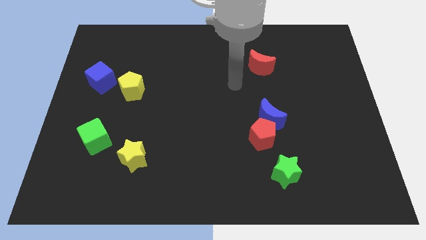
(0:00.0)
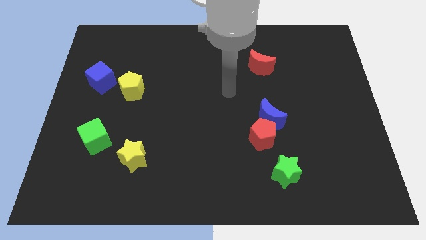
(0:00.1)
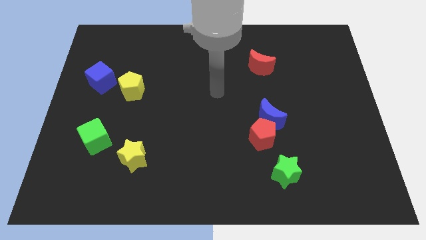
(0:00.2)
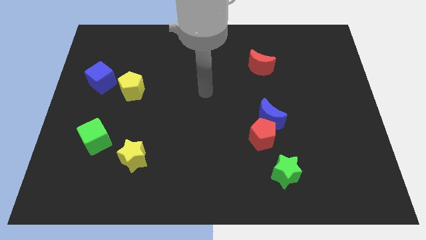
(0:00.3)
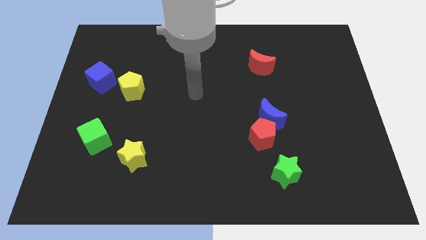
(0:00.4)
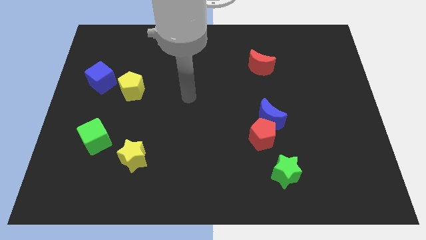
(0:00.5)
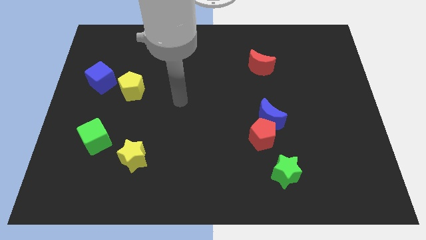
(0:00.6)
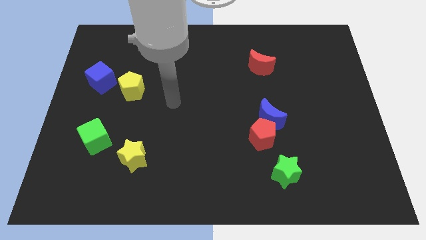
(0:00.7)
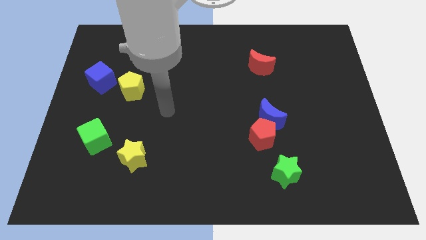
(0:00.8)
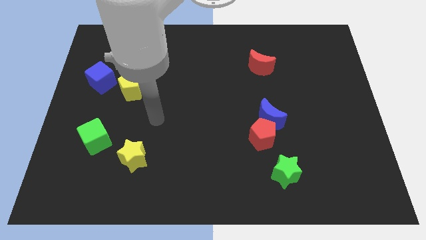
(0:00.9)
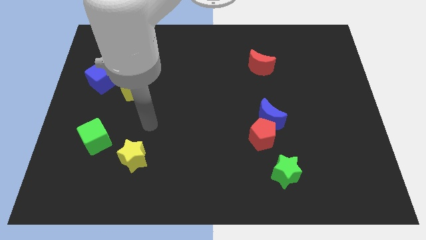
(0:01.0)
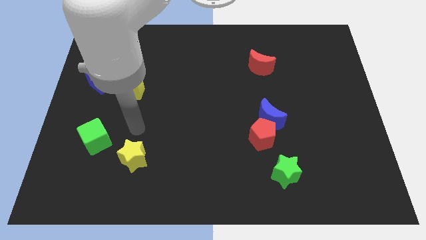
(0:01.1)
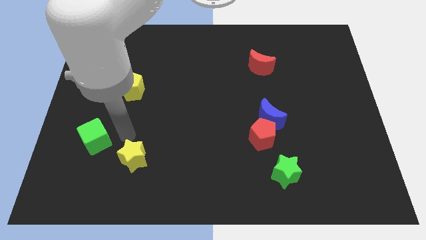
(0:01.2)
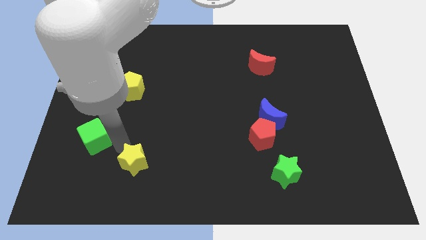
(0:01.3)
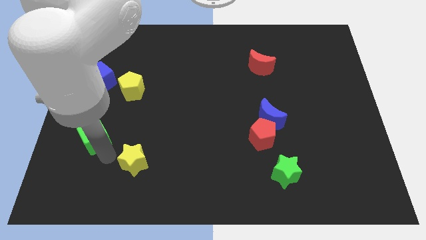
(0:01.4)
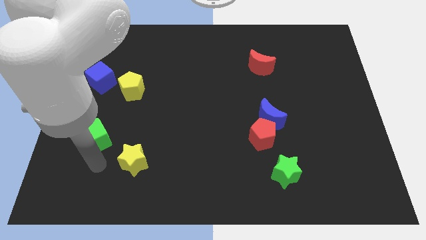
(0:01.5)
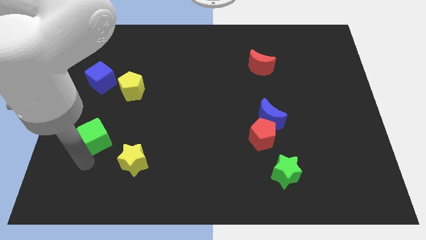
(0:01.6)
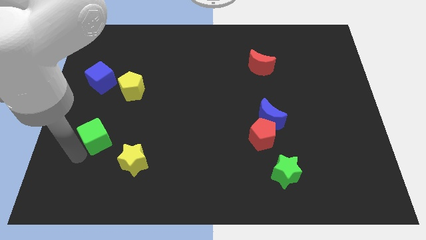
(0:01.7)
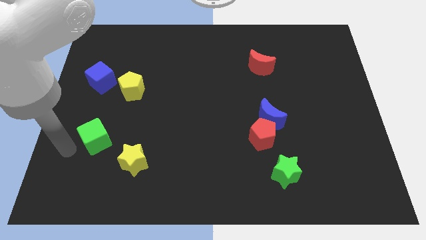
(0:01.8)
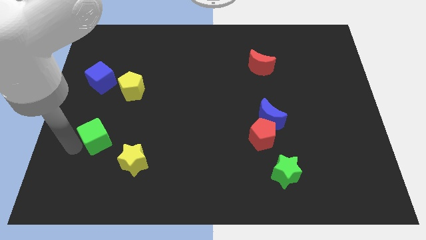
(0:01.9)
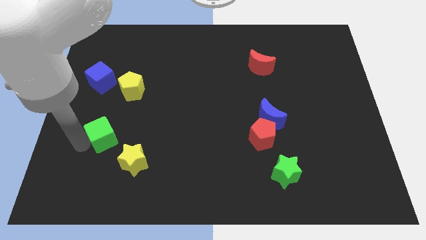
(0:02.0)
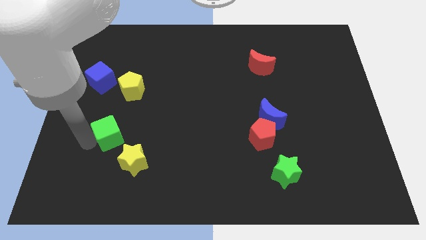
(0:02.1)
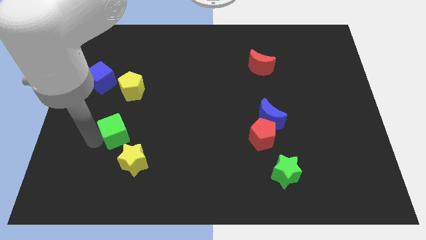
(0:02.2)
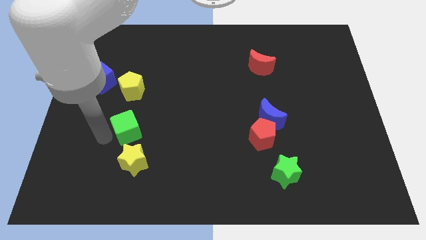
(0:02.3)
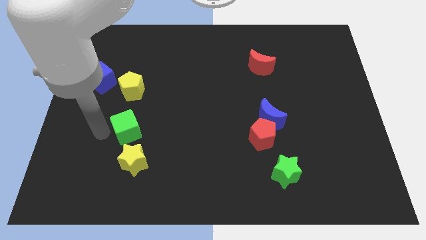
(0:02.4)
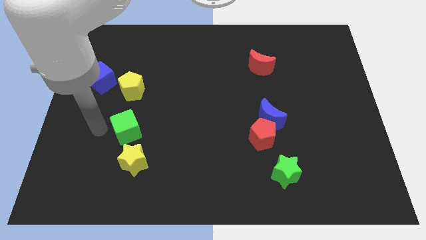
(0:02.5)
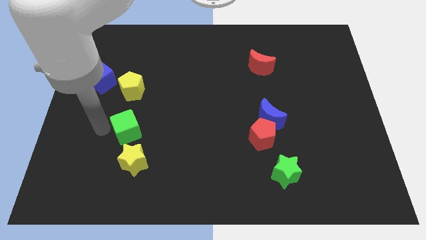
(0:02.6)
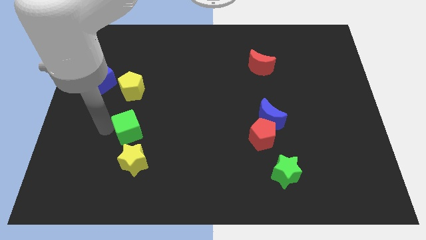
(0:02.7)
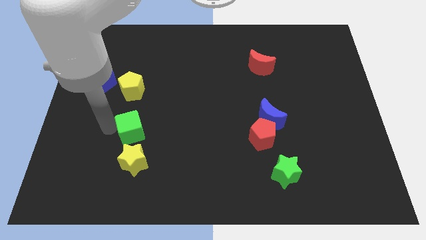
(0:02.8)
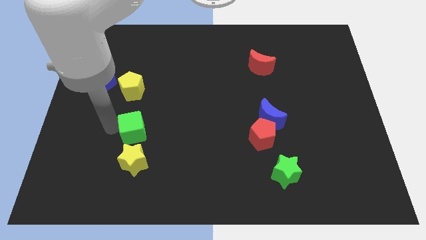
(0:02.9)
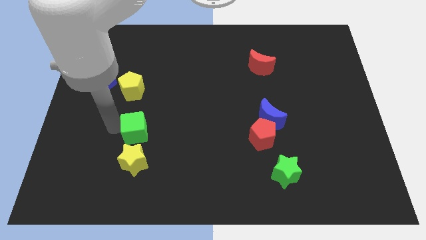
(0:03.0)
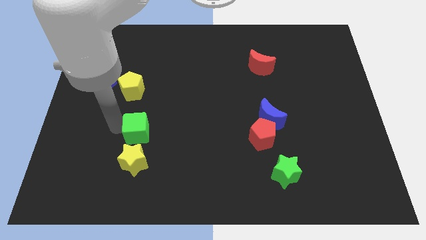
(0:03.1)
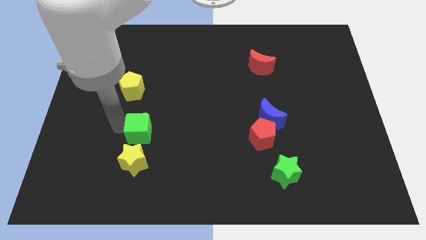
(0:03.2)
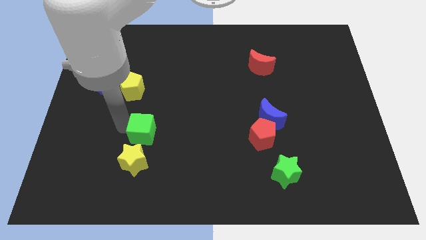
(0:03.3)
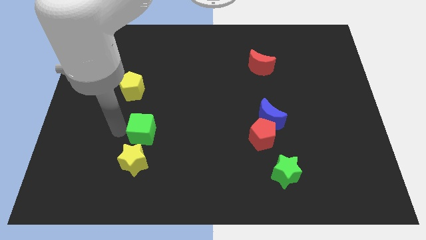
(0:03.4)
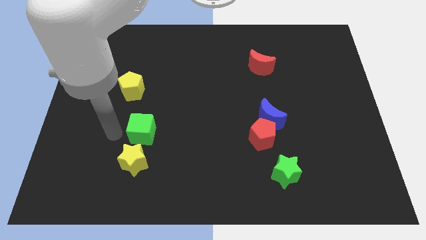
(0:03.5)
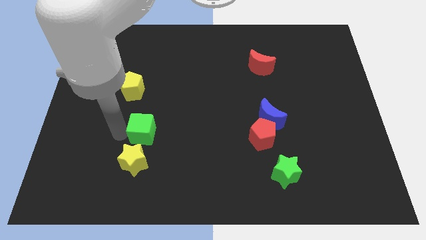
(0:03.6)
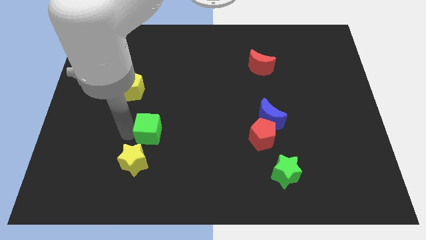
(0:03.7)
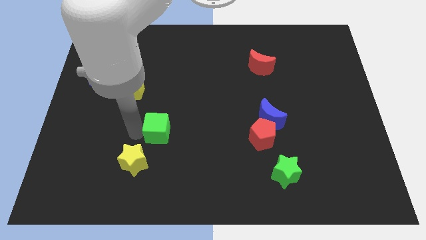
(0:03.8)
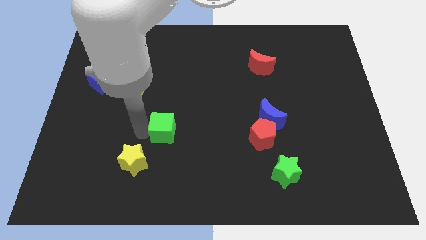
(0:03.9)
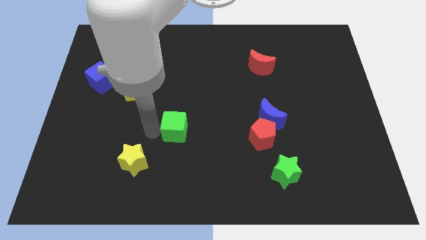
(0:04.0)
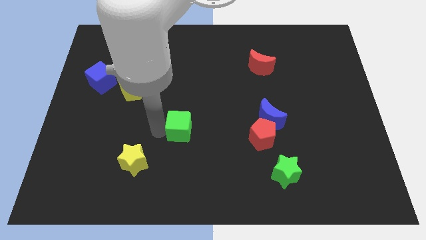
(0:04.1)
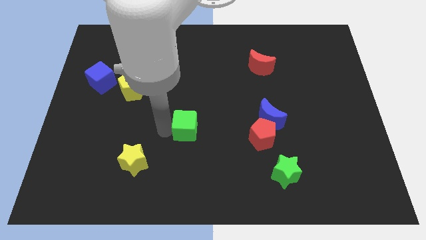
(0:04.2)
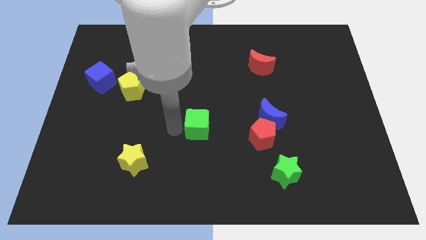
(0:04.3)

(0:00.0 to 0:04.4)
push the green cube to the right

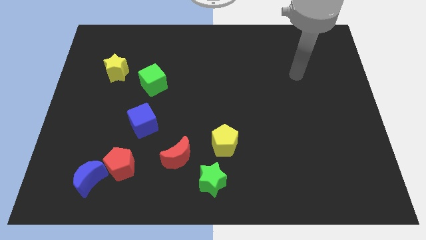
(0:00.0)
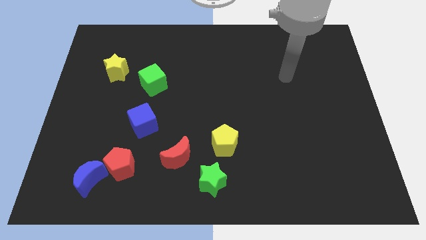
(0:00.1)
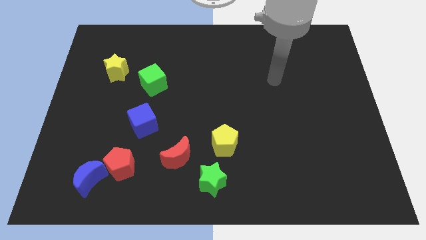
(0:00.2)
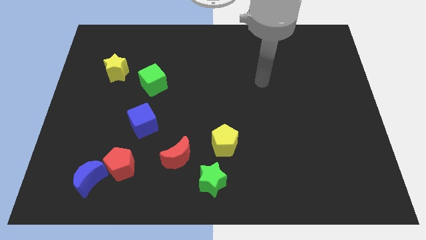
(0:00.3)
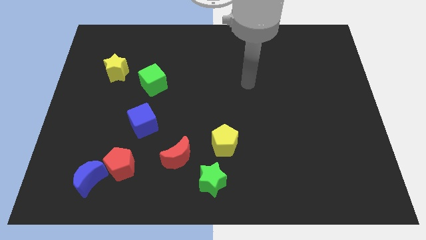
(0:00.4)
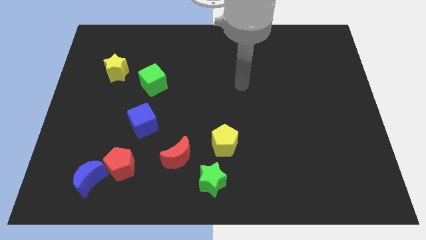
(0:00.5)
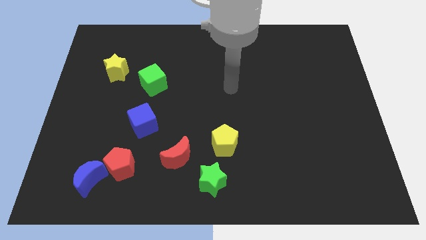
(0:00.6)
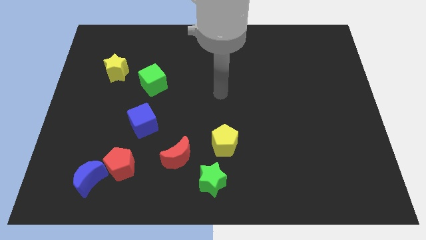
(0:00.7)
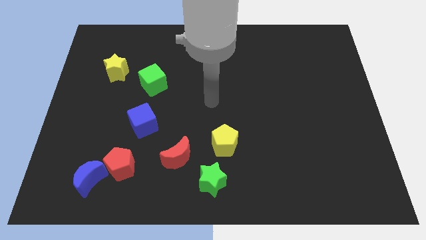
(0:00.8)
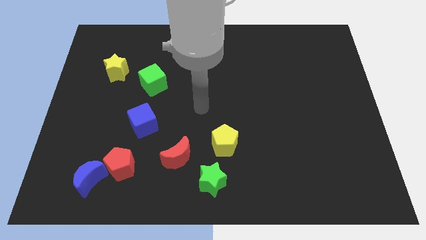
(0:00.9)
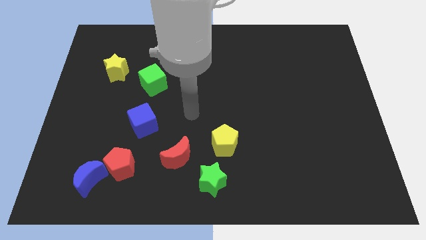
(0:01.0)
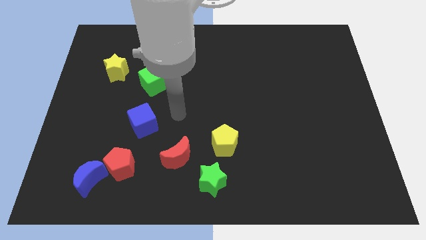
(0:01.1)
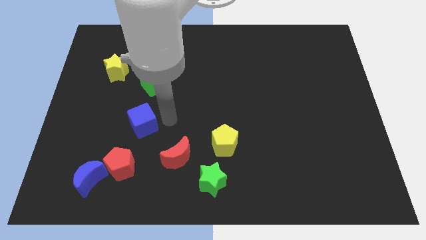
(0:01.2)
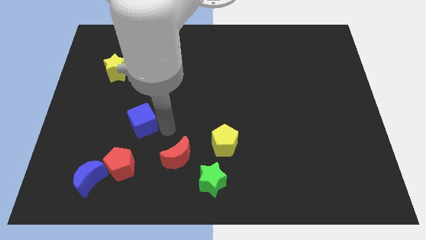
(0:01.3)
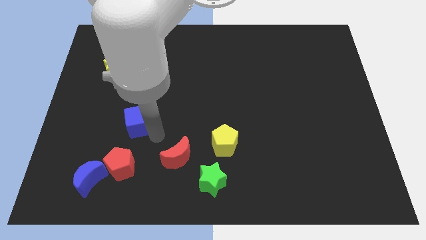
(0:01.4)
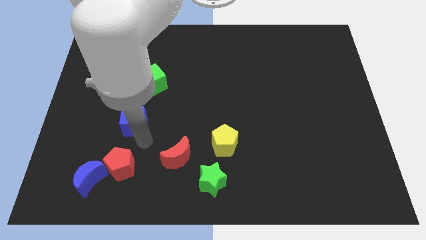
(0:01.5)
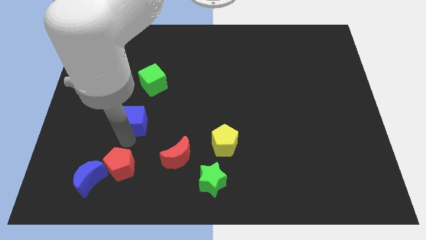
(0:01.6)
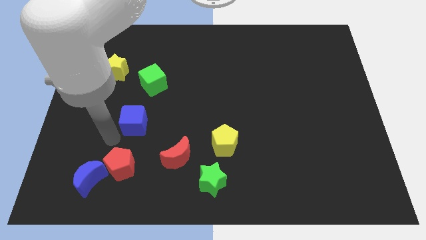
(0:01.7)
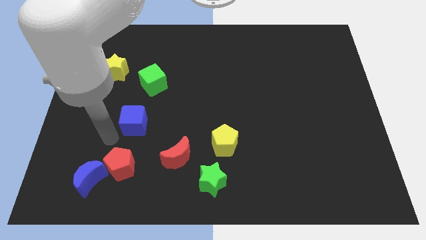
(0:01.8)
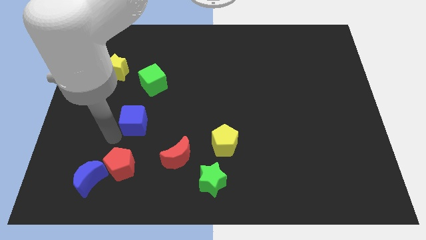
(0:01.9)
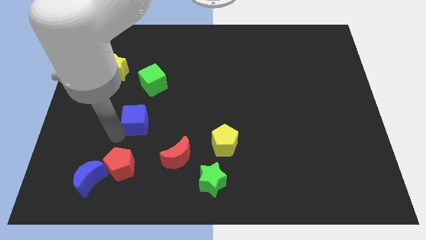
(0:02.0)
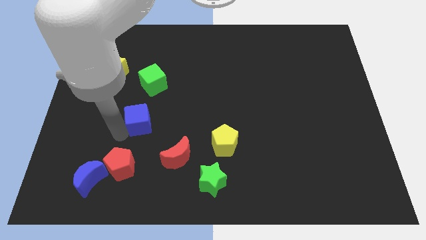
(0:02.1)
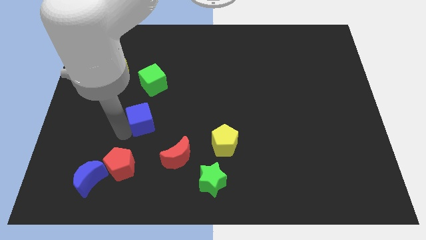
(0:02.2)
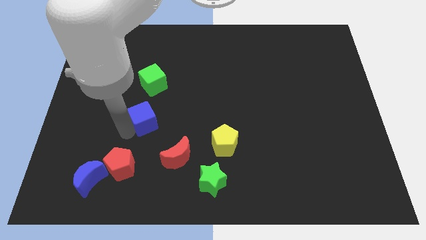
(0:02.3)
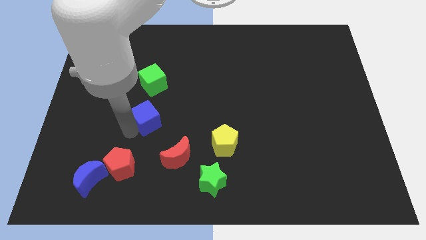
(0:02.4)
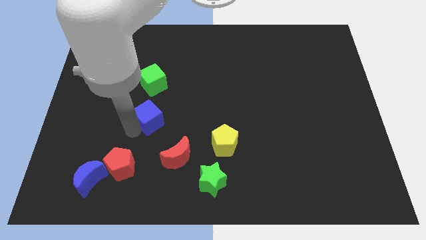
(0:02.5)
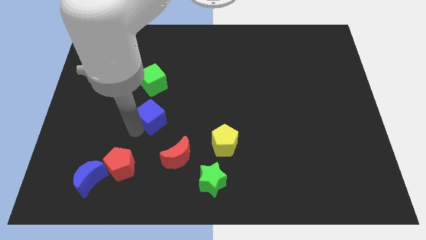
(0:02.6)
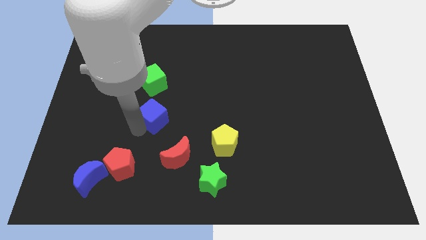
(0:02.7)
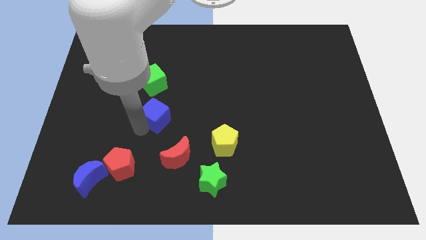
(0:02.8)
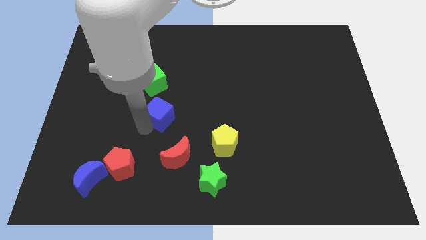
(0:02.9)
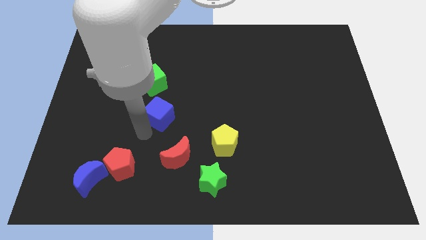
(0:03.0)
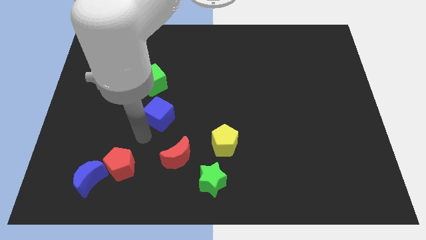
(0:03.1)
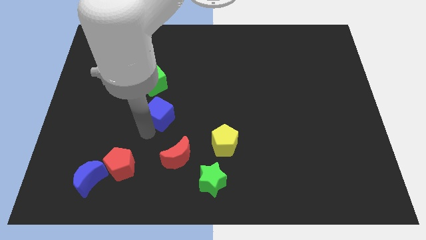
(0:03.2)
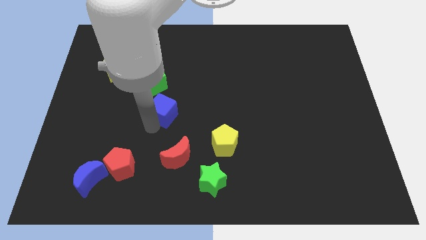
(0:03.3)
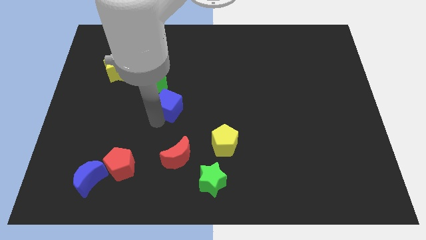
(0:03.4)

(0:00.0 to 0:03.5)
push the blue cube a little bit upwards and right
